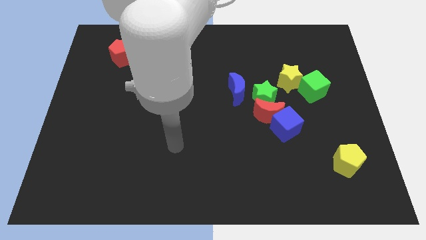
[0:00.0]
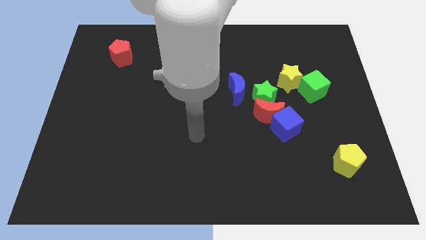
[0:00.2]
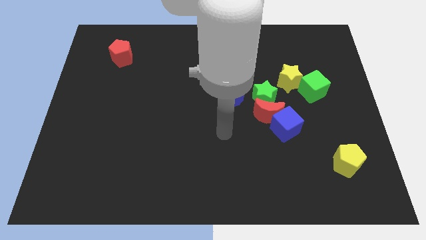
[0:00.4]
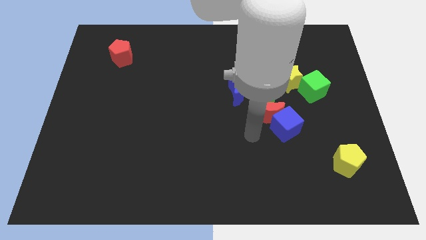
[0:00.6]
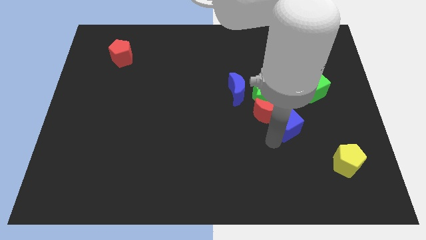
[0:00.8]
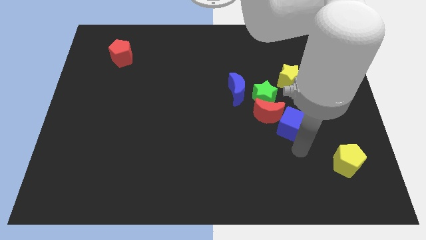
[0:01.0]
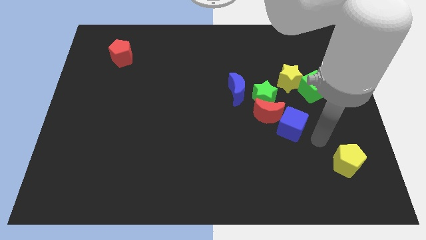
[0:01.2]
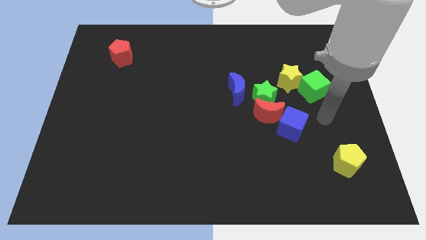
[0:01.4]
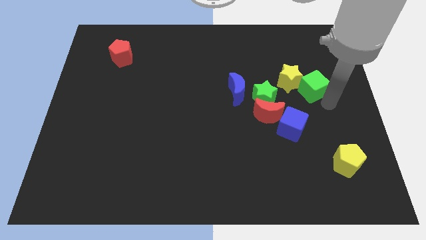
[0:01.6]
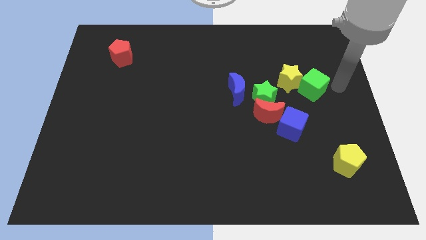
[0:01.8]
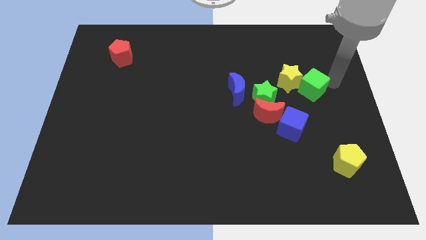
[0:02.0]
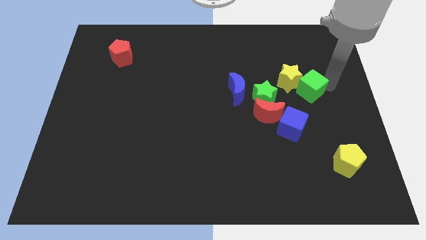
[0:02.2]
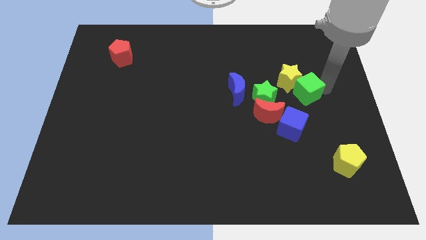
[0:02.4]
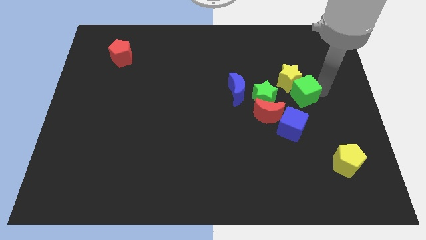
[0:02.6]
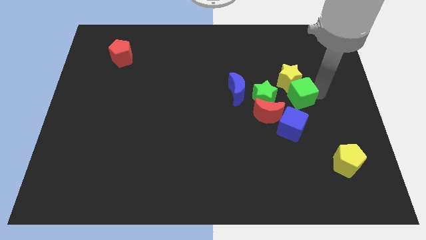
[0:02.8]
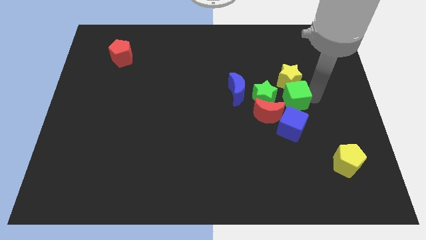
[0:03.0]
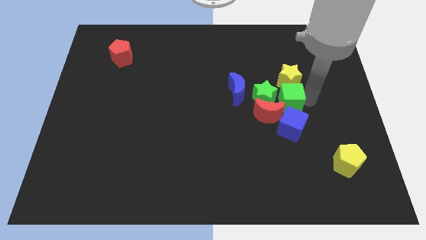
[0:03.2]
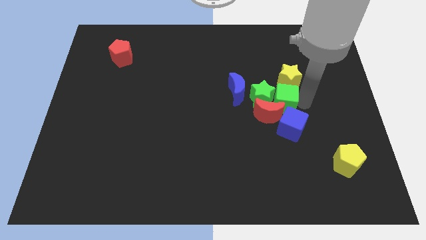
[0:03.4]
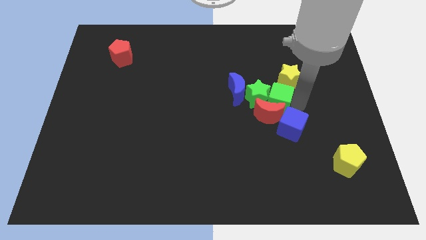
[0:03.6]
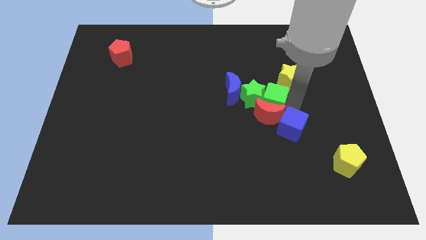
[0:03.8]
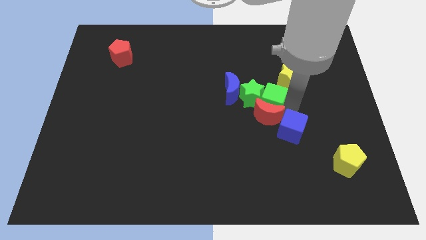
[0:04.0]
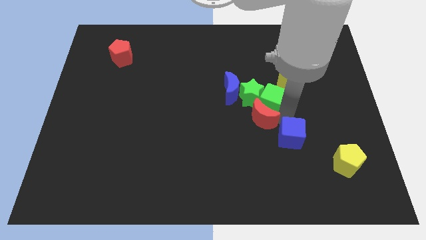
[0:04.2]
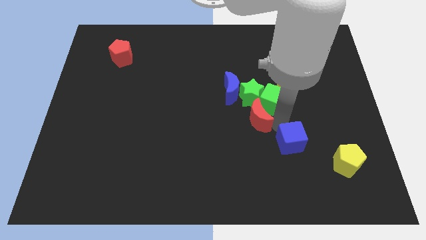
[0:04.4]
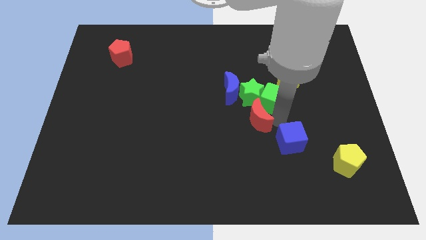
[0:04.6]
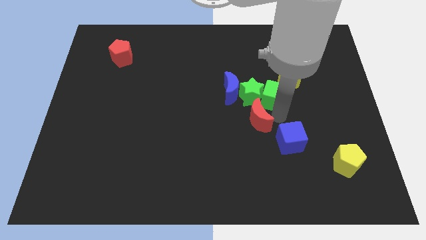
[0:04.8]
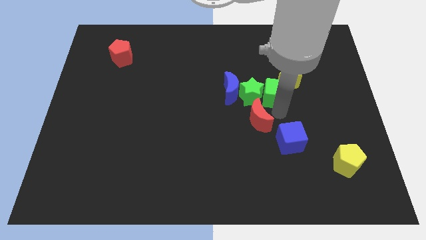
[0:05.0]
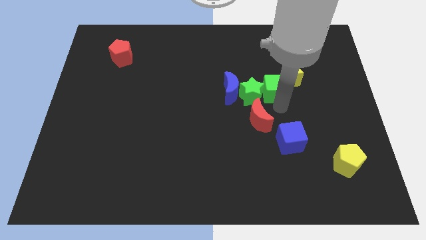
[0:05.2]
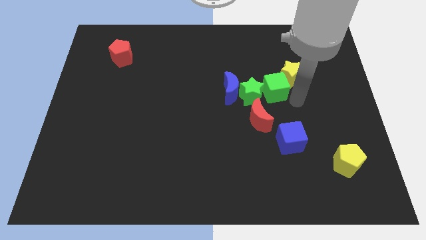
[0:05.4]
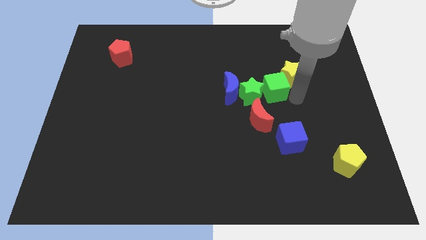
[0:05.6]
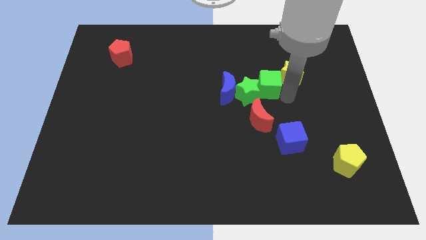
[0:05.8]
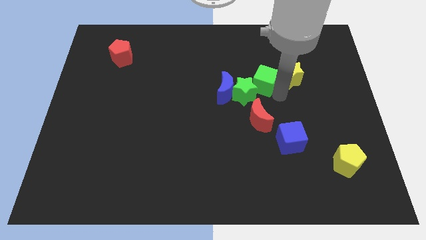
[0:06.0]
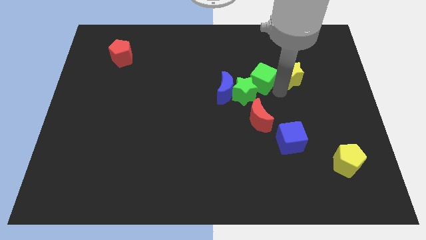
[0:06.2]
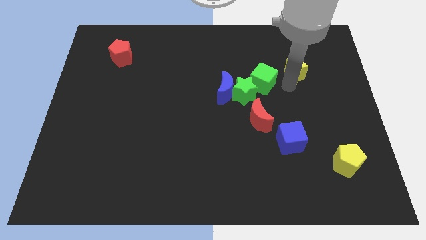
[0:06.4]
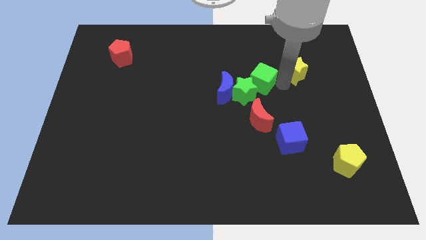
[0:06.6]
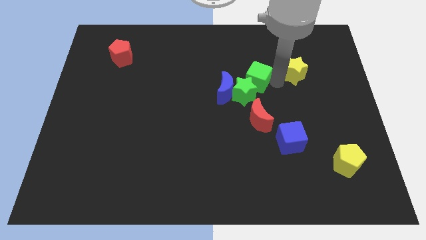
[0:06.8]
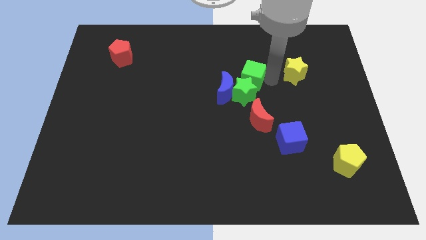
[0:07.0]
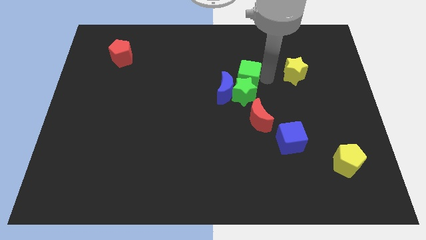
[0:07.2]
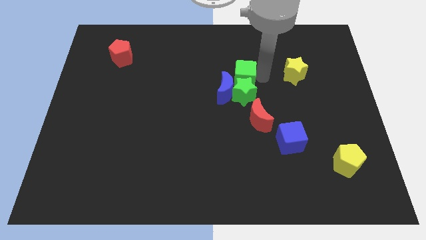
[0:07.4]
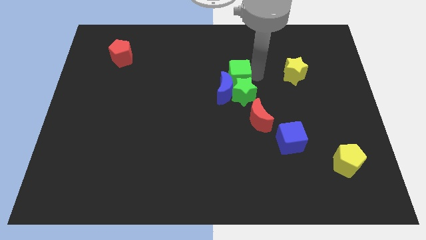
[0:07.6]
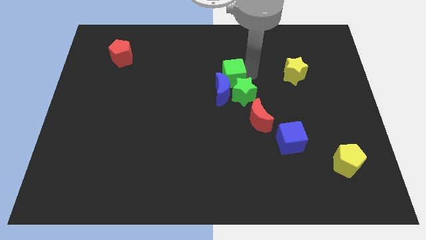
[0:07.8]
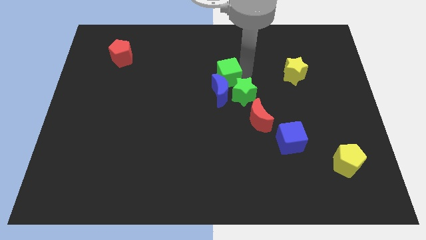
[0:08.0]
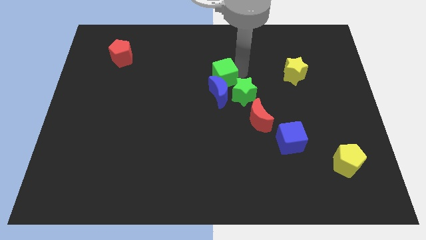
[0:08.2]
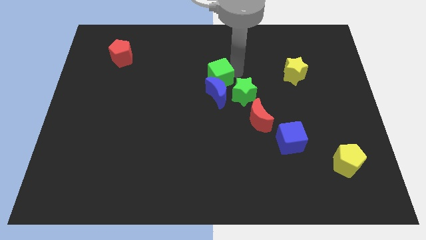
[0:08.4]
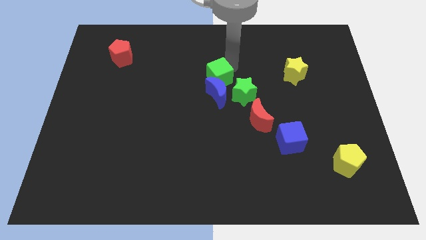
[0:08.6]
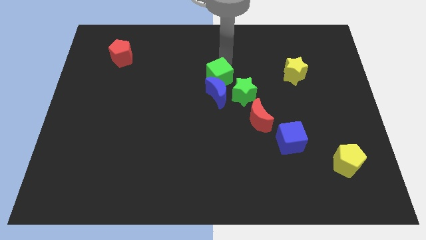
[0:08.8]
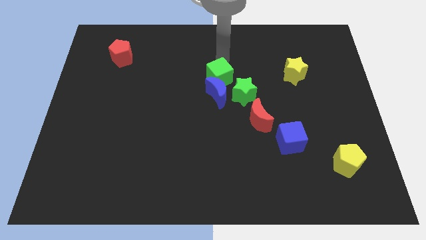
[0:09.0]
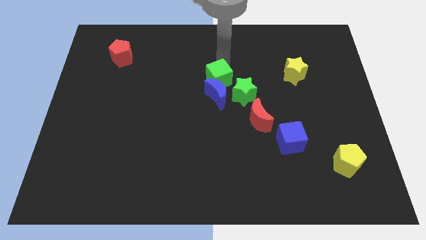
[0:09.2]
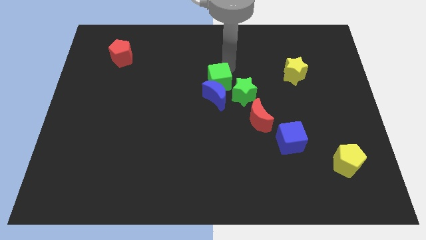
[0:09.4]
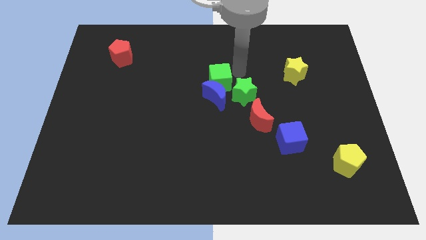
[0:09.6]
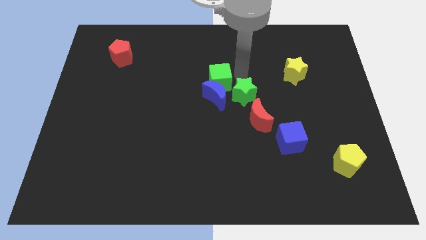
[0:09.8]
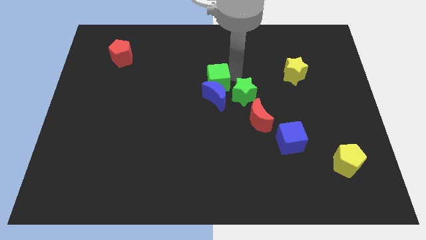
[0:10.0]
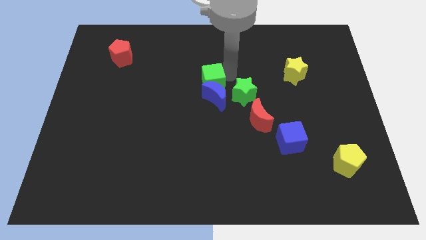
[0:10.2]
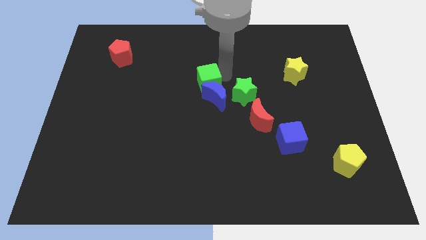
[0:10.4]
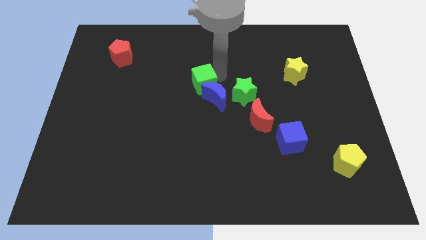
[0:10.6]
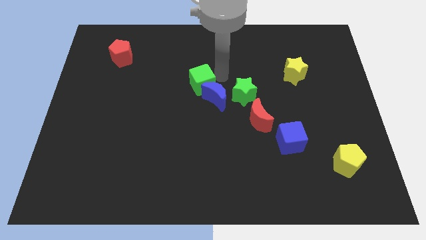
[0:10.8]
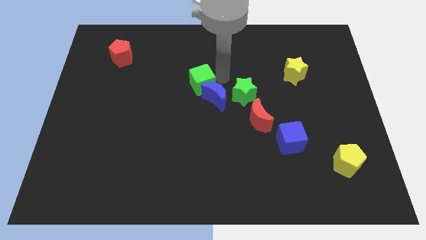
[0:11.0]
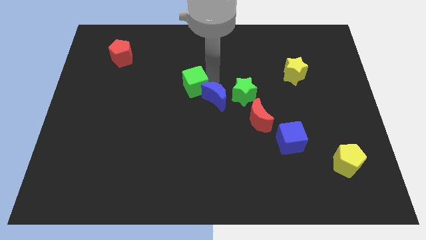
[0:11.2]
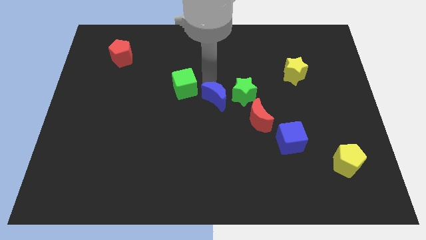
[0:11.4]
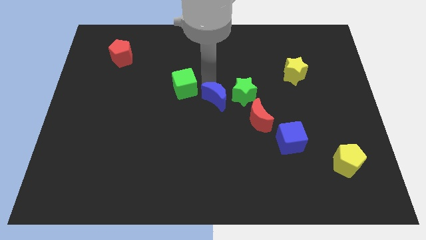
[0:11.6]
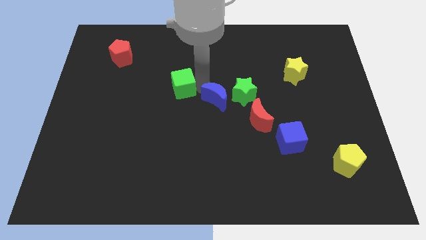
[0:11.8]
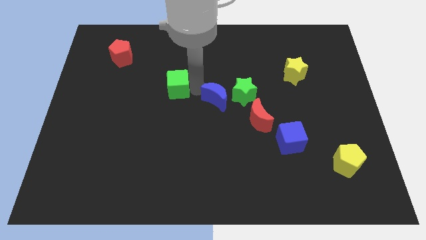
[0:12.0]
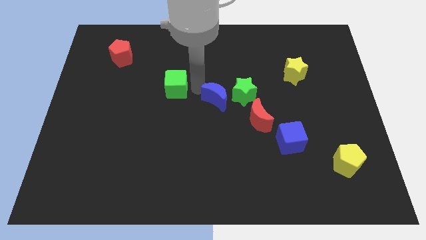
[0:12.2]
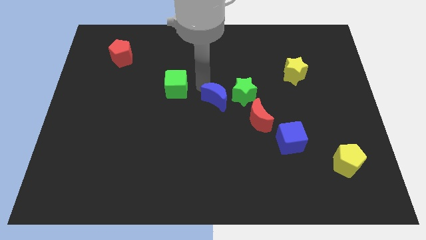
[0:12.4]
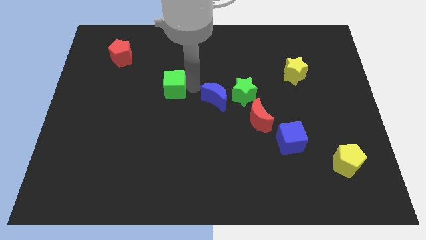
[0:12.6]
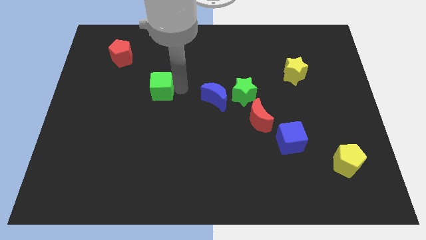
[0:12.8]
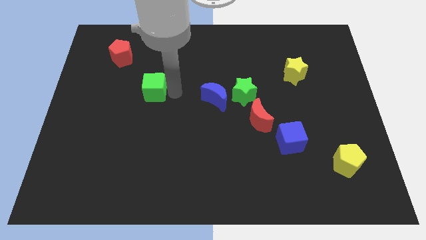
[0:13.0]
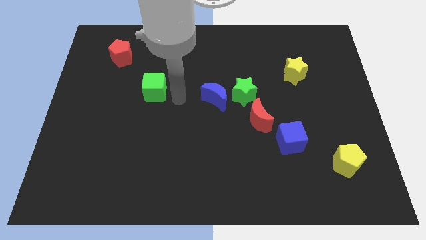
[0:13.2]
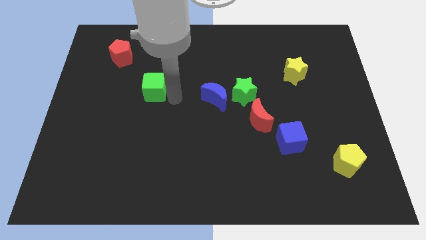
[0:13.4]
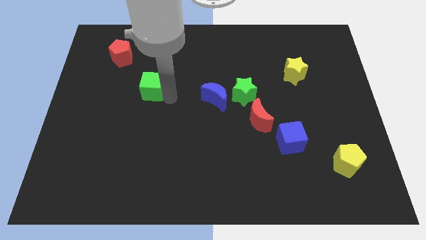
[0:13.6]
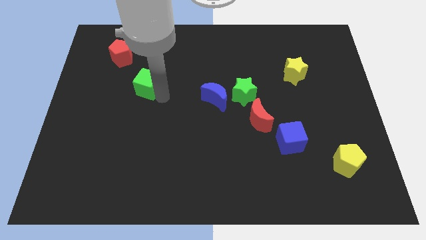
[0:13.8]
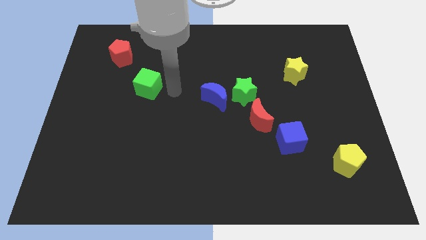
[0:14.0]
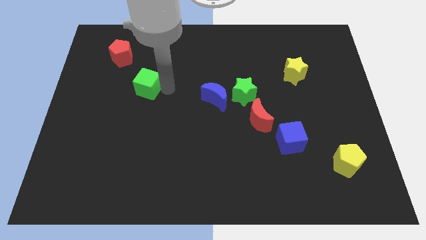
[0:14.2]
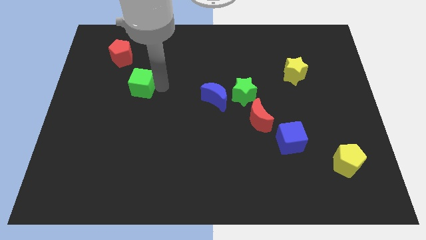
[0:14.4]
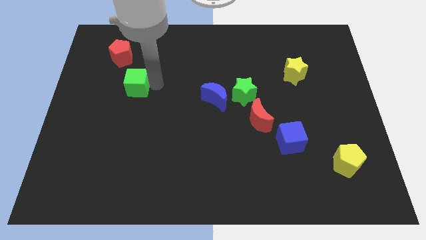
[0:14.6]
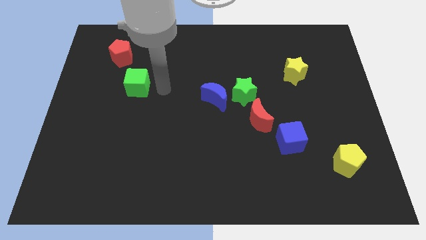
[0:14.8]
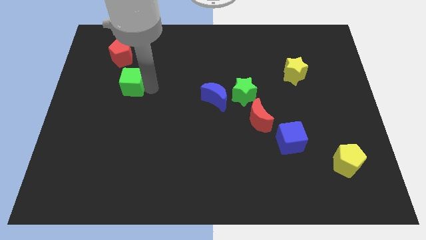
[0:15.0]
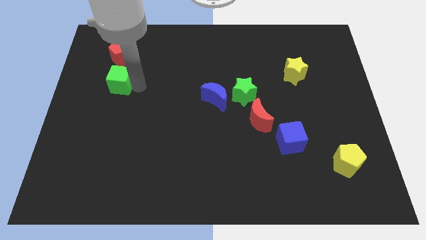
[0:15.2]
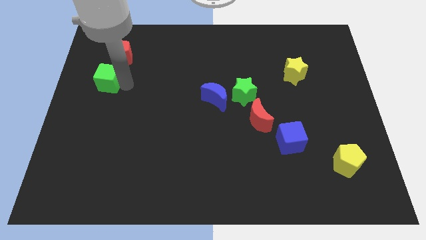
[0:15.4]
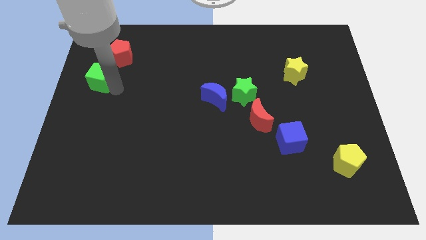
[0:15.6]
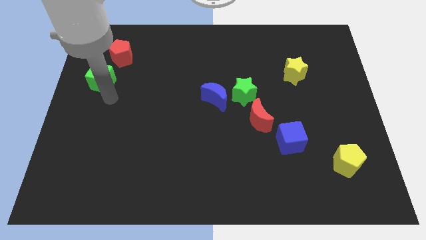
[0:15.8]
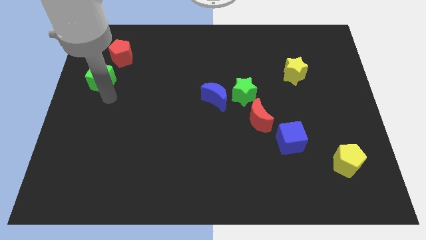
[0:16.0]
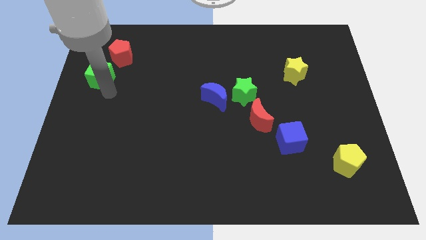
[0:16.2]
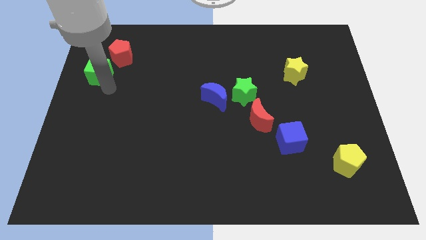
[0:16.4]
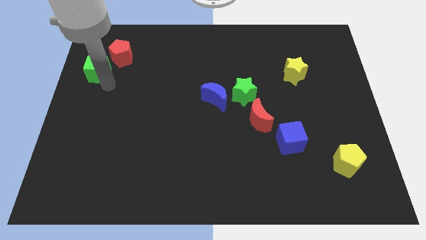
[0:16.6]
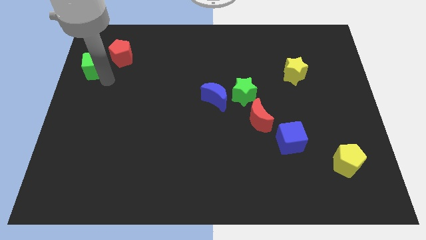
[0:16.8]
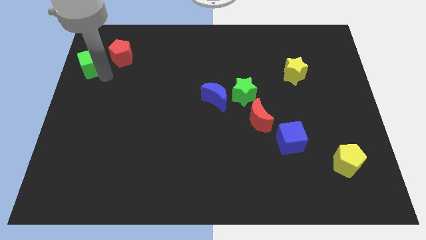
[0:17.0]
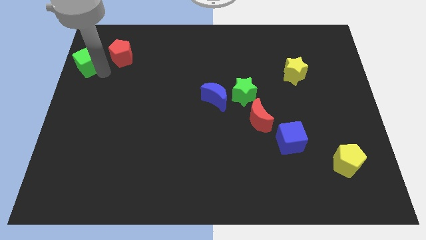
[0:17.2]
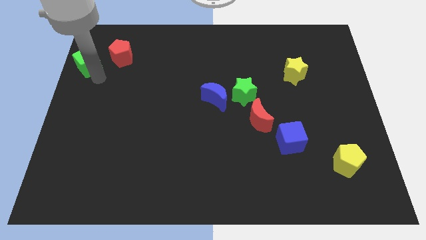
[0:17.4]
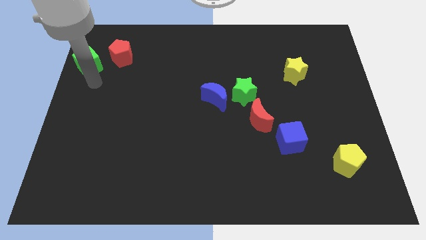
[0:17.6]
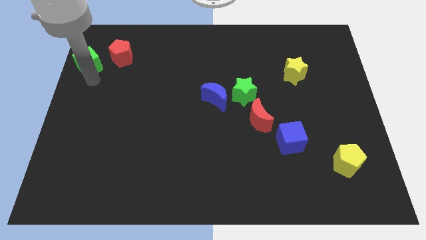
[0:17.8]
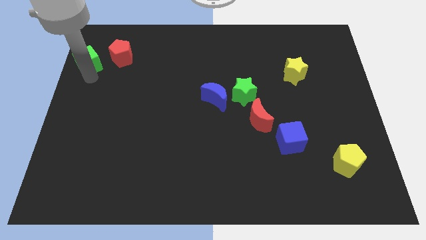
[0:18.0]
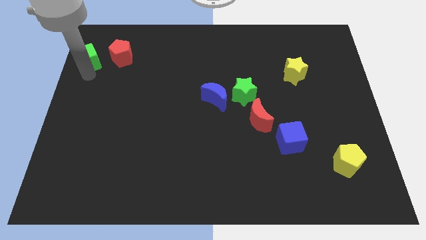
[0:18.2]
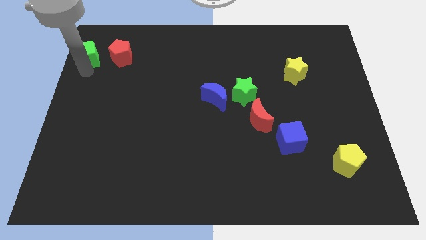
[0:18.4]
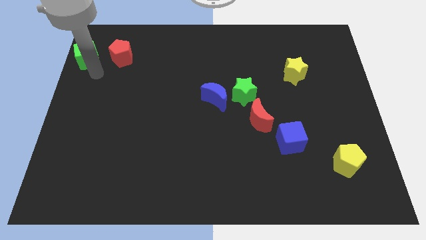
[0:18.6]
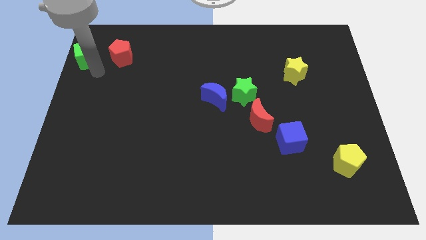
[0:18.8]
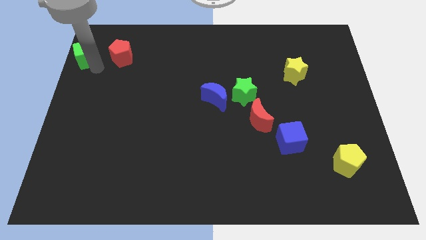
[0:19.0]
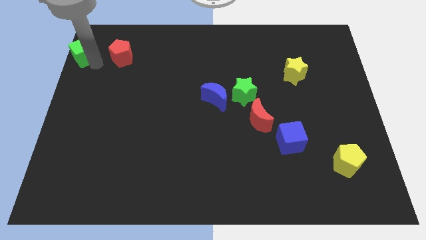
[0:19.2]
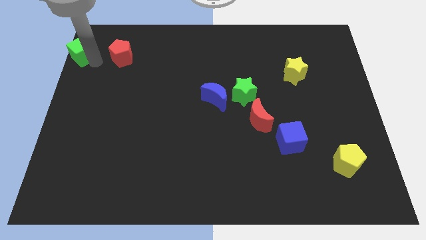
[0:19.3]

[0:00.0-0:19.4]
move the green cube to the top left of the board
